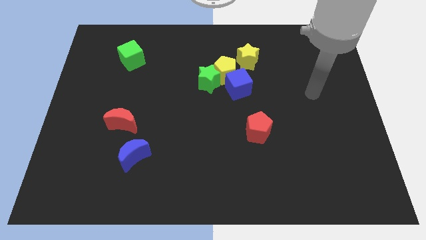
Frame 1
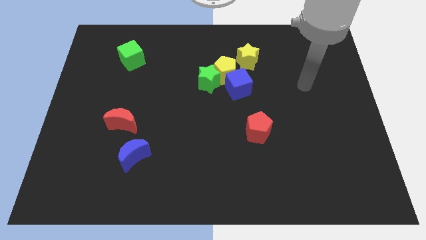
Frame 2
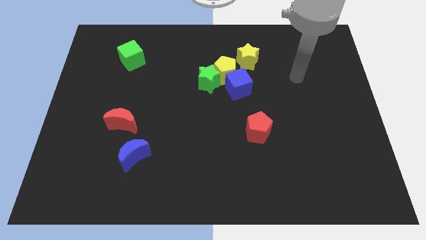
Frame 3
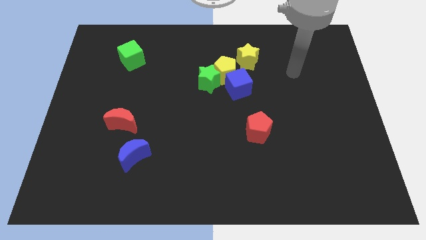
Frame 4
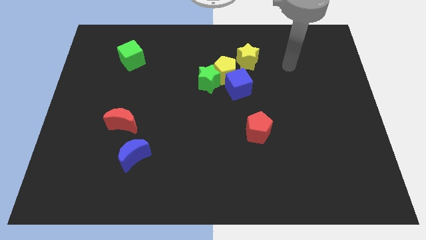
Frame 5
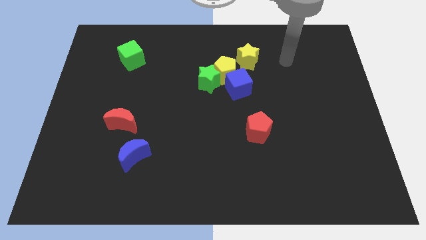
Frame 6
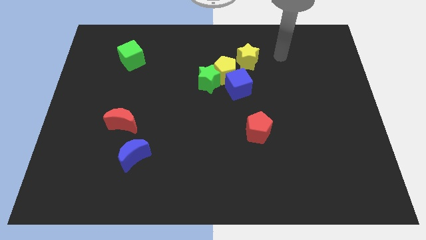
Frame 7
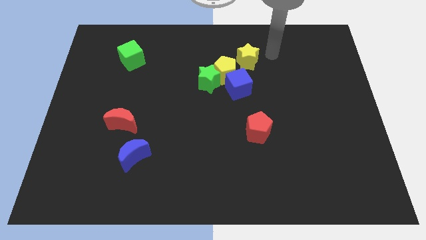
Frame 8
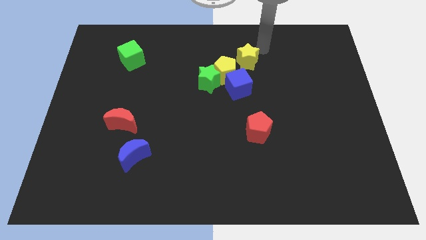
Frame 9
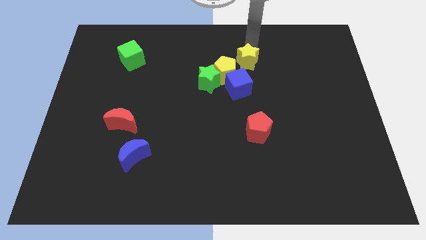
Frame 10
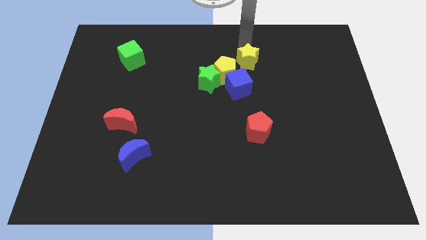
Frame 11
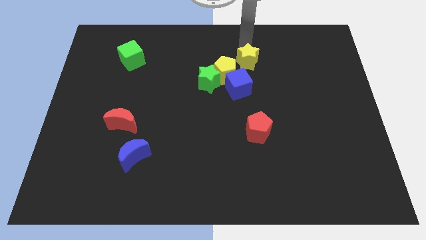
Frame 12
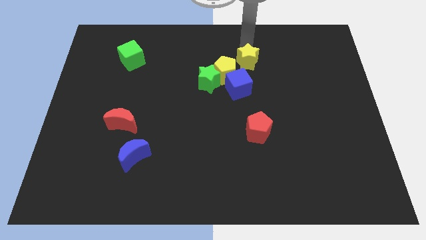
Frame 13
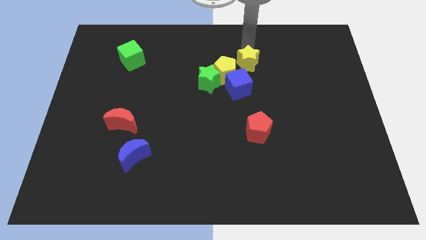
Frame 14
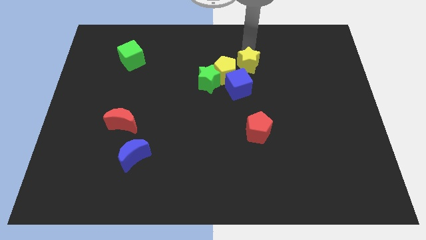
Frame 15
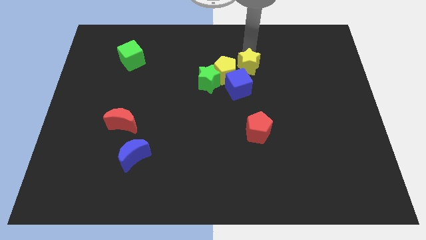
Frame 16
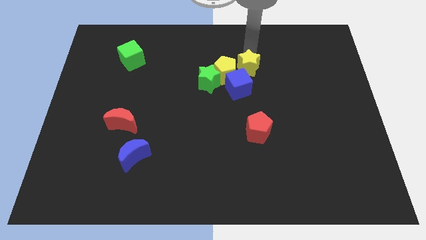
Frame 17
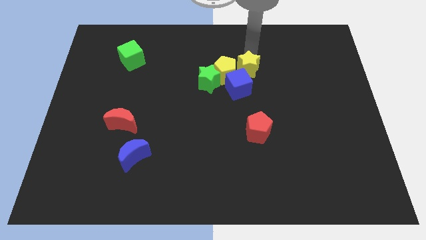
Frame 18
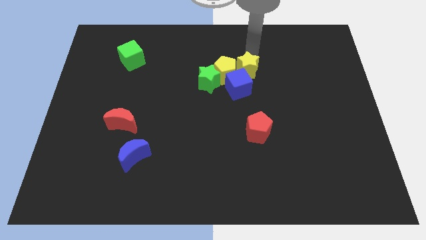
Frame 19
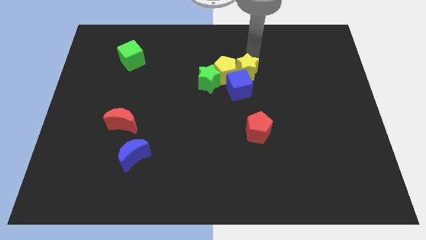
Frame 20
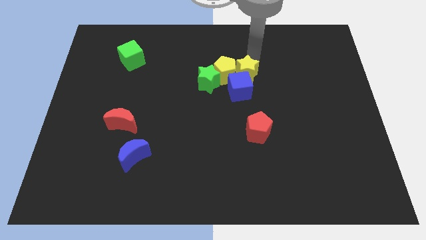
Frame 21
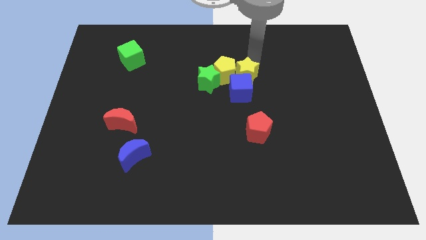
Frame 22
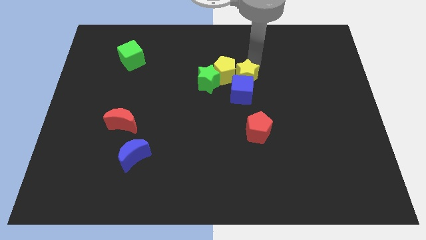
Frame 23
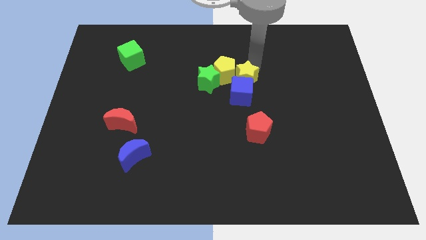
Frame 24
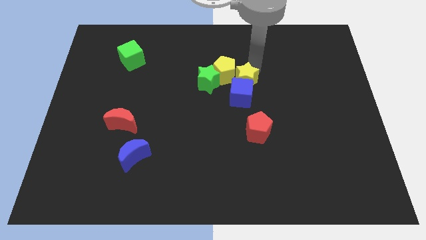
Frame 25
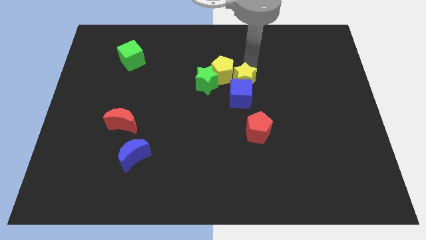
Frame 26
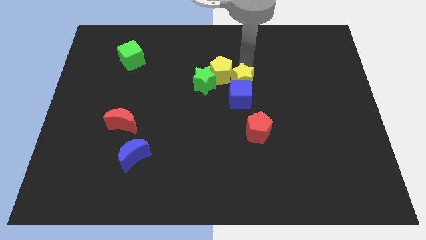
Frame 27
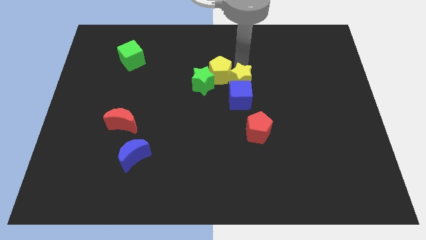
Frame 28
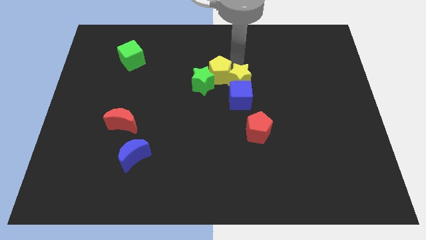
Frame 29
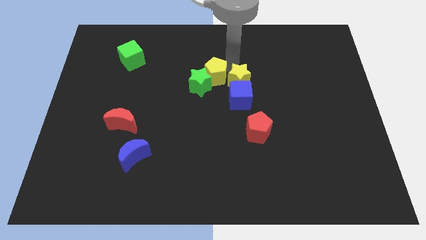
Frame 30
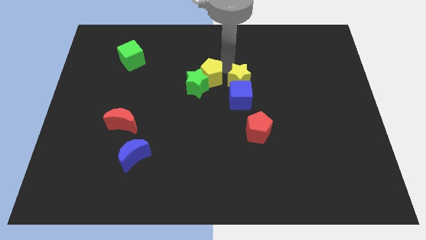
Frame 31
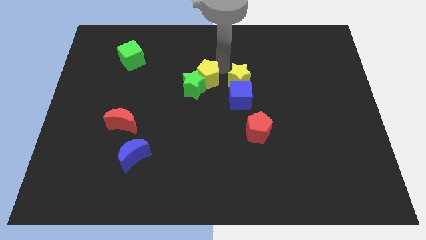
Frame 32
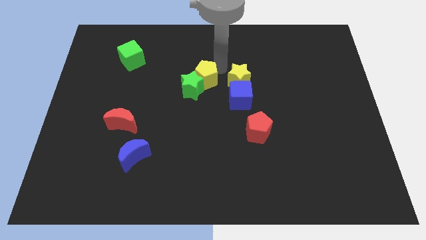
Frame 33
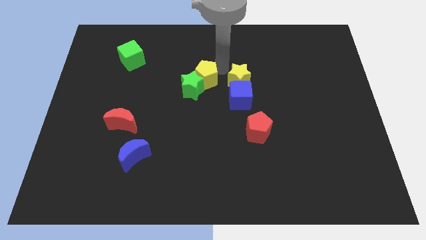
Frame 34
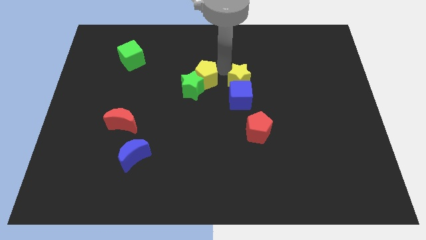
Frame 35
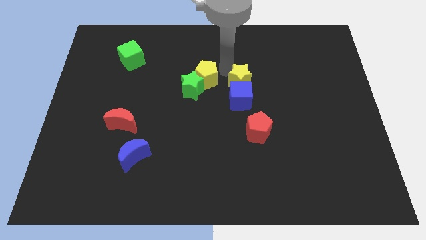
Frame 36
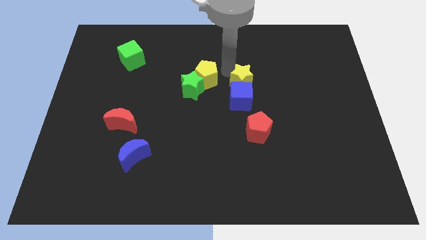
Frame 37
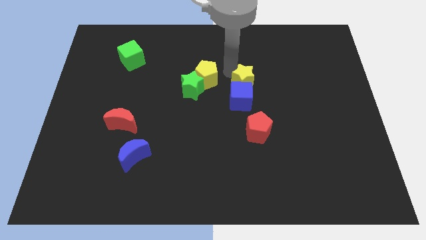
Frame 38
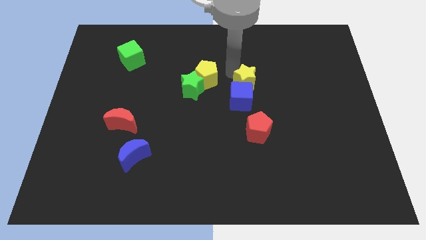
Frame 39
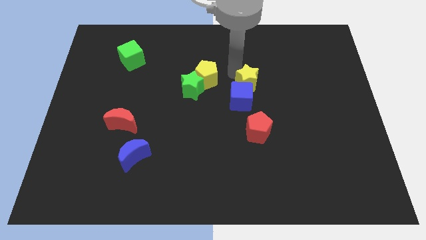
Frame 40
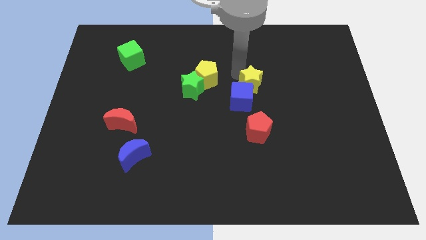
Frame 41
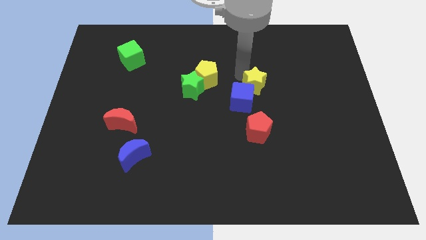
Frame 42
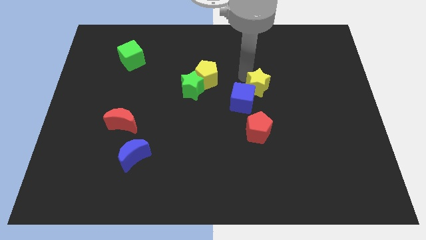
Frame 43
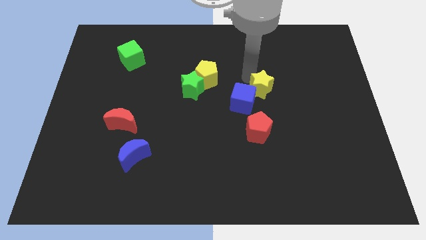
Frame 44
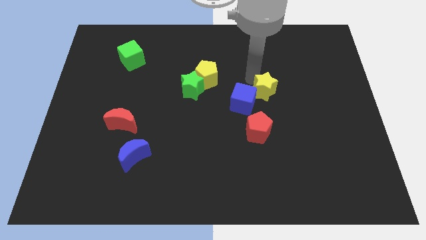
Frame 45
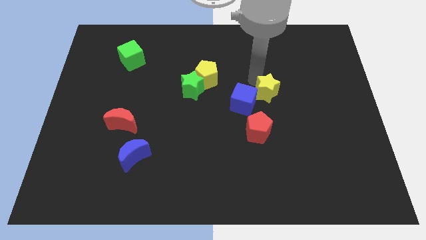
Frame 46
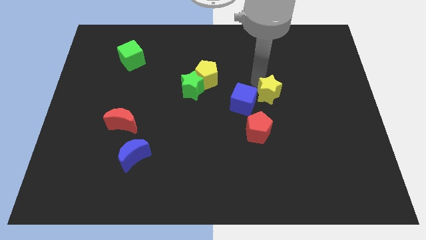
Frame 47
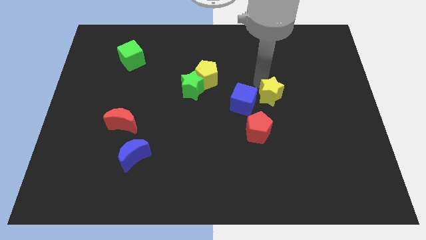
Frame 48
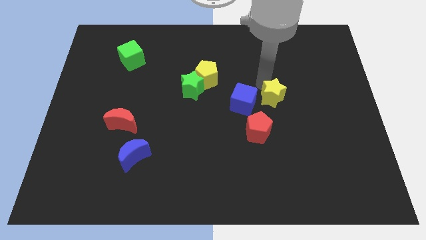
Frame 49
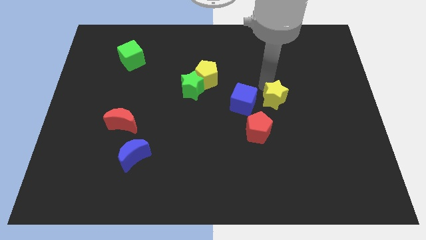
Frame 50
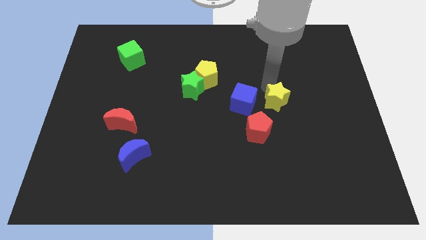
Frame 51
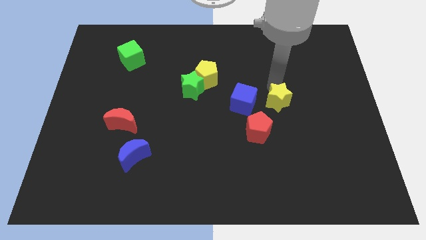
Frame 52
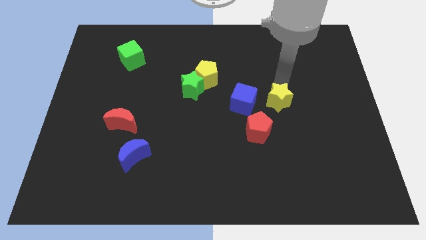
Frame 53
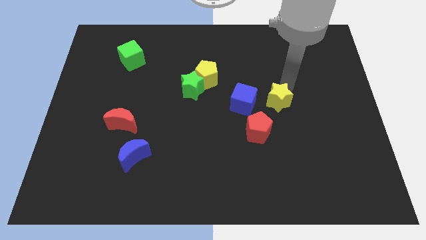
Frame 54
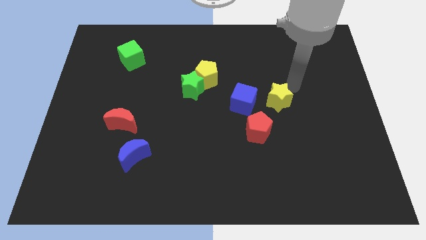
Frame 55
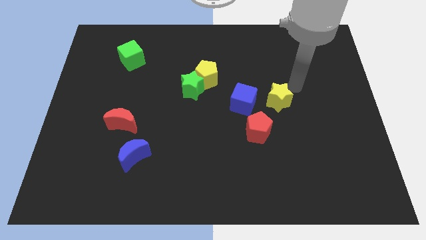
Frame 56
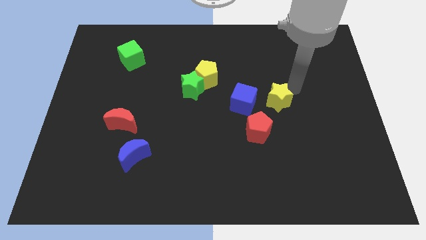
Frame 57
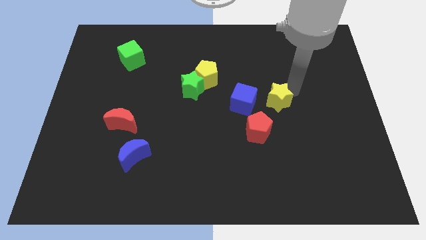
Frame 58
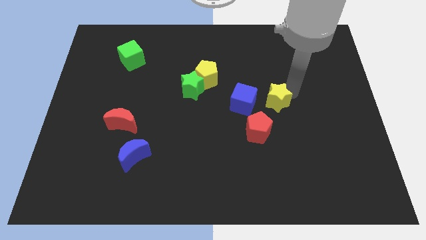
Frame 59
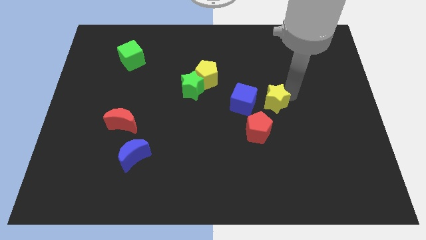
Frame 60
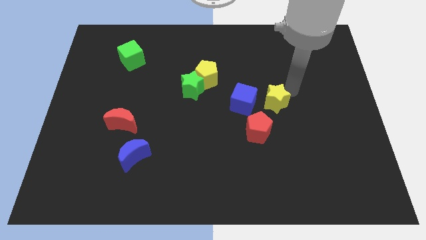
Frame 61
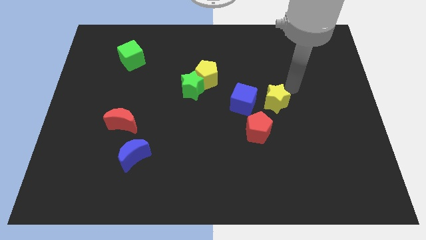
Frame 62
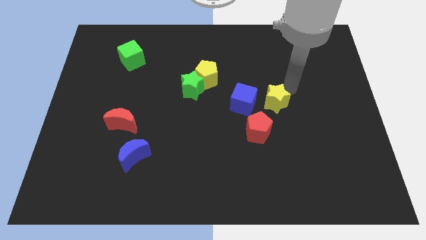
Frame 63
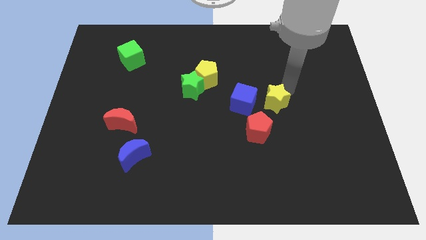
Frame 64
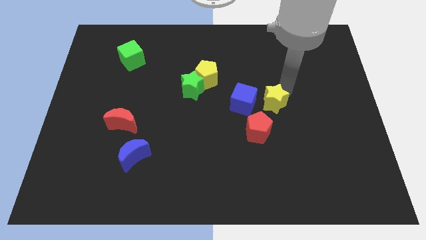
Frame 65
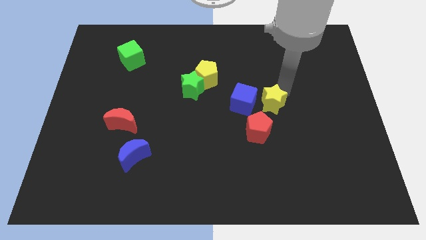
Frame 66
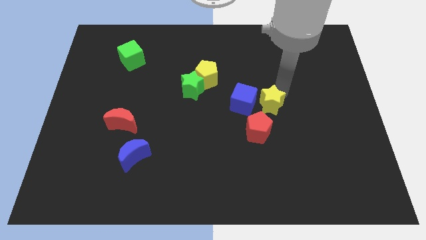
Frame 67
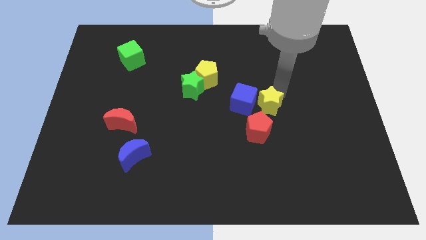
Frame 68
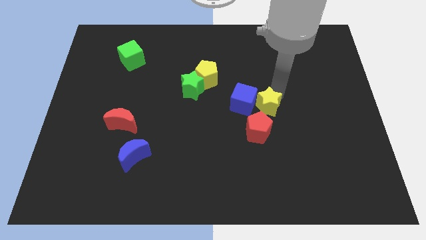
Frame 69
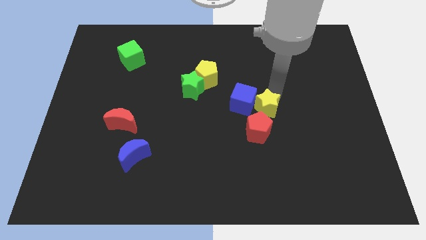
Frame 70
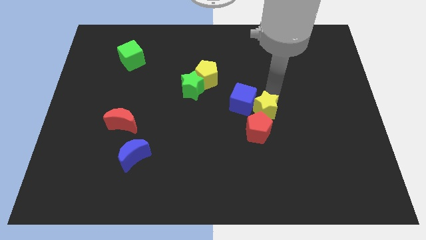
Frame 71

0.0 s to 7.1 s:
put the yellow star next to the red pentagon
